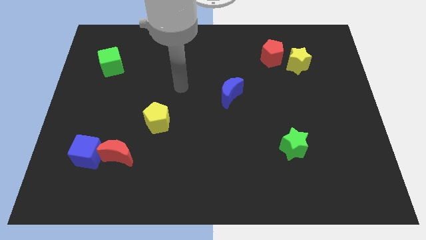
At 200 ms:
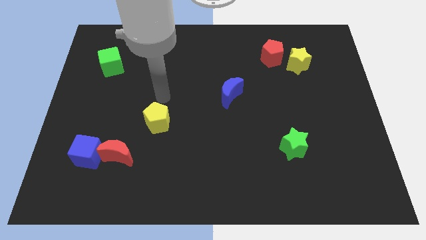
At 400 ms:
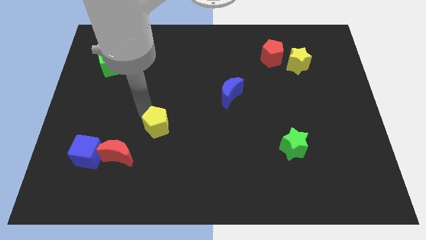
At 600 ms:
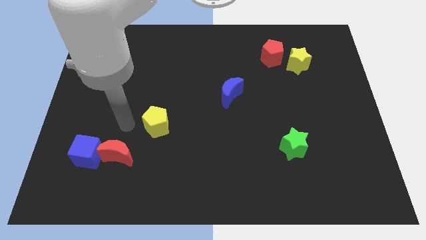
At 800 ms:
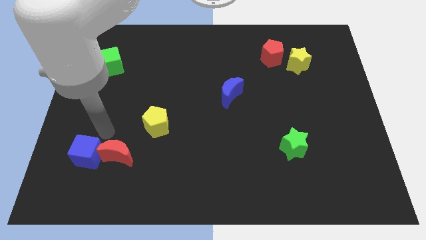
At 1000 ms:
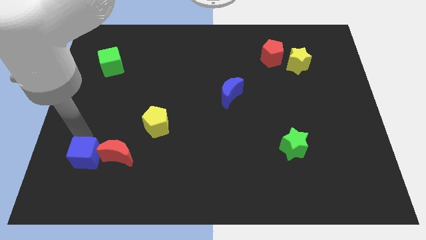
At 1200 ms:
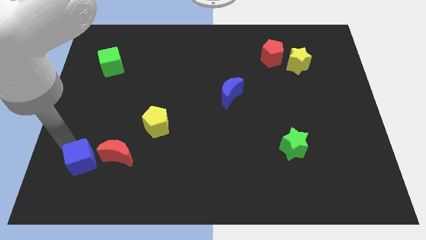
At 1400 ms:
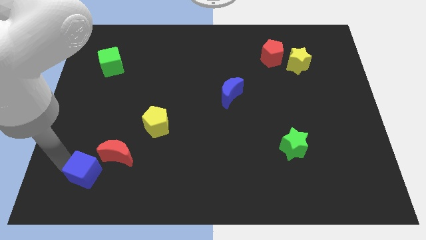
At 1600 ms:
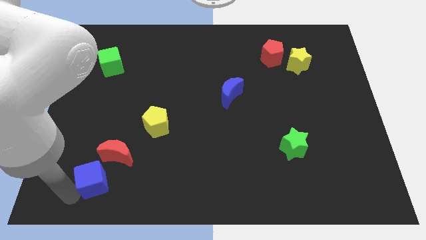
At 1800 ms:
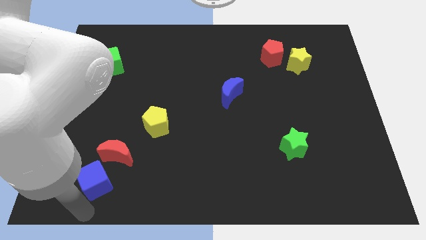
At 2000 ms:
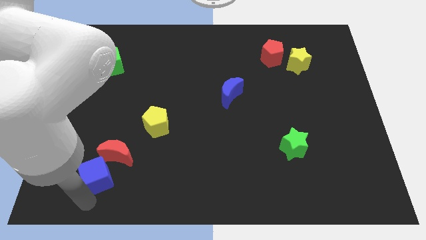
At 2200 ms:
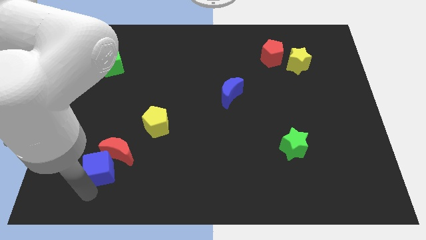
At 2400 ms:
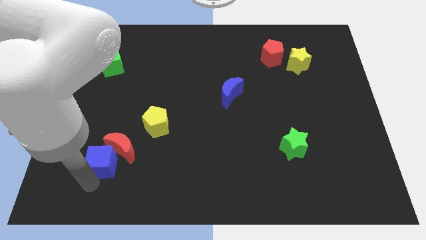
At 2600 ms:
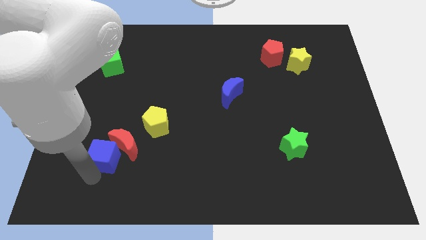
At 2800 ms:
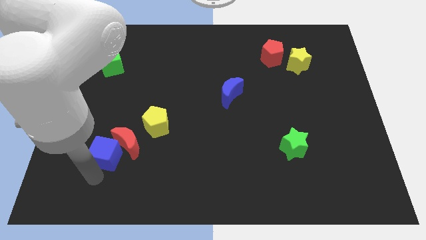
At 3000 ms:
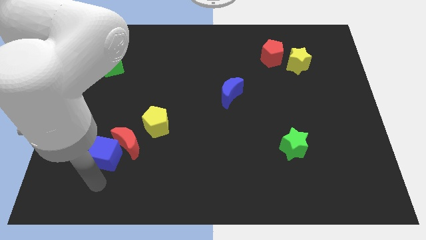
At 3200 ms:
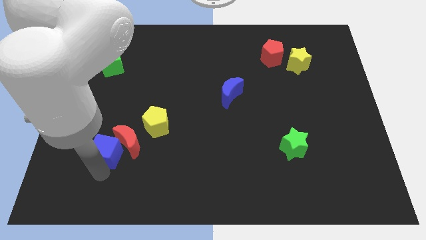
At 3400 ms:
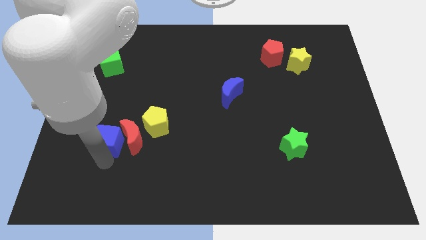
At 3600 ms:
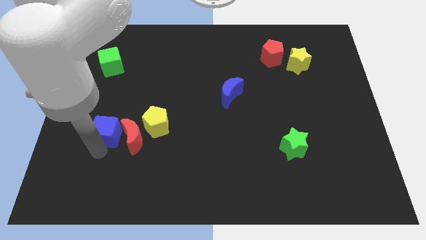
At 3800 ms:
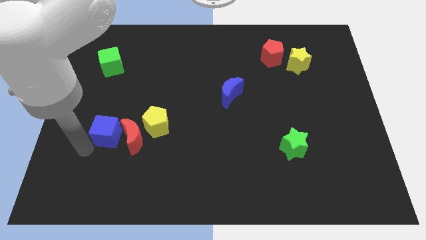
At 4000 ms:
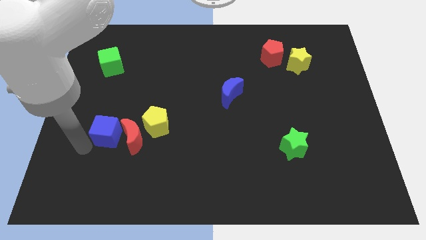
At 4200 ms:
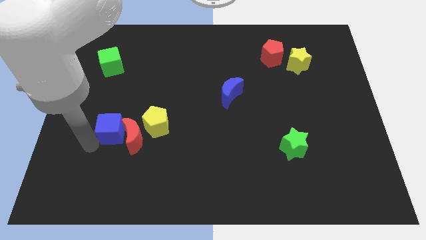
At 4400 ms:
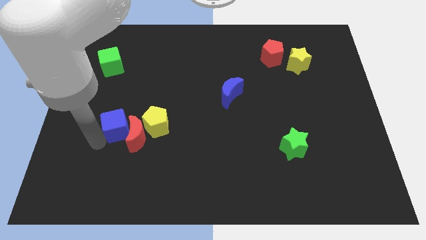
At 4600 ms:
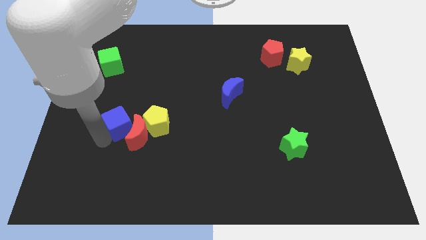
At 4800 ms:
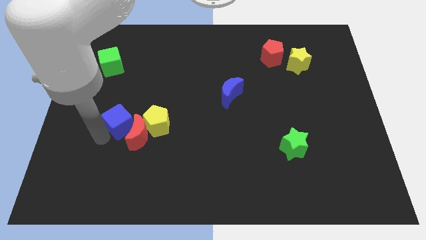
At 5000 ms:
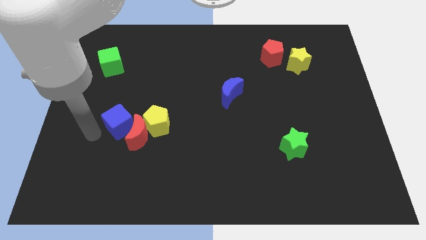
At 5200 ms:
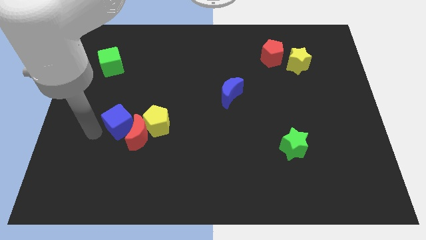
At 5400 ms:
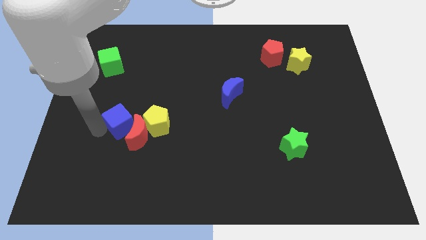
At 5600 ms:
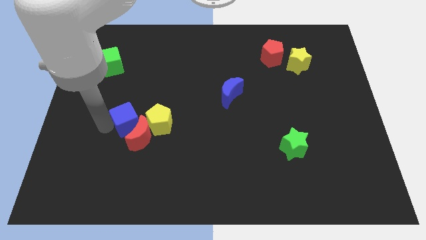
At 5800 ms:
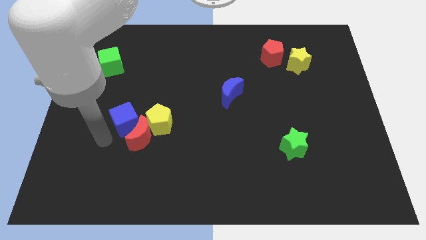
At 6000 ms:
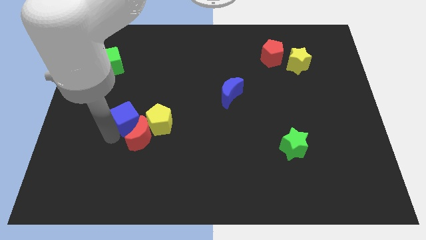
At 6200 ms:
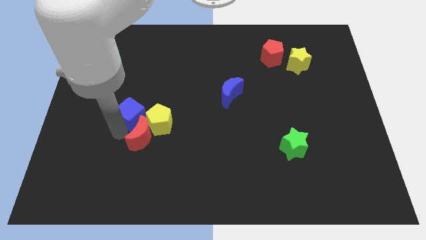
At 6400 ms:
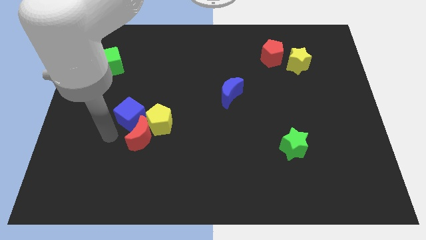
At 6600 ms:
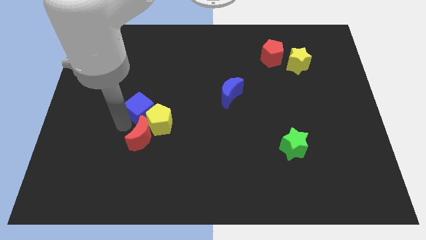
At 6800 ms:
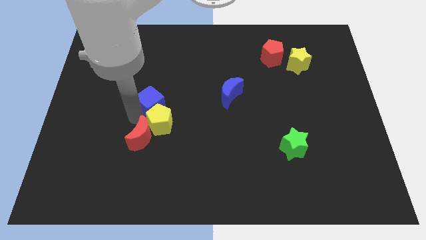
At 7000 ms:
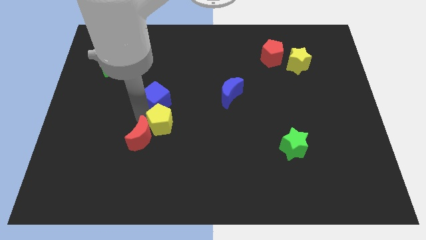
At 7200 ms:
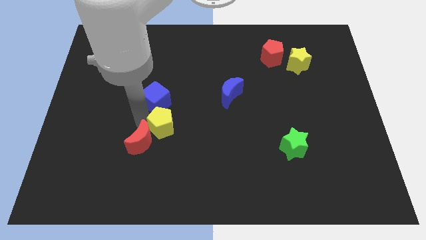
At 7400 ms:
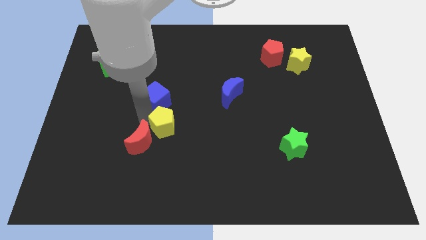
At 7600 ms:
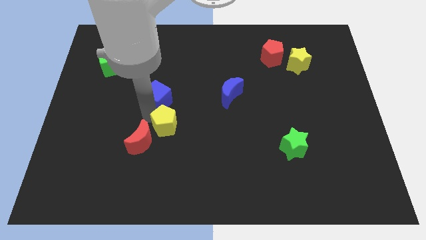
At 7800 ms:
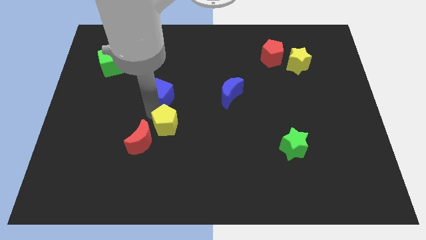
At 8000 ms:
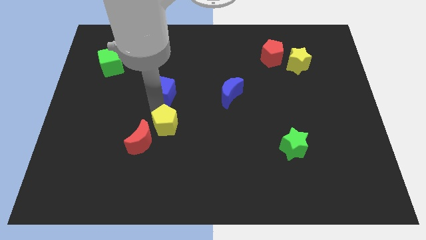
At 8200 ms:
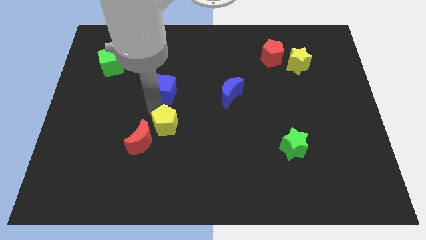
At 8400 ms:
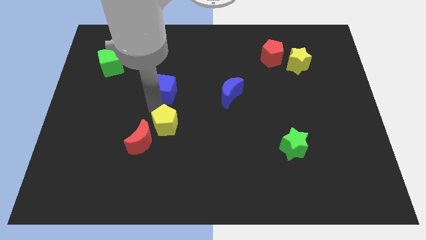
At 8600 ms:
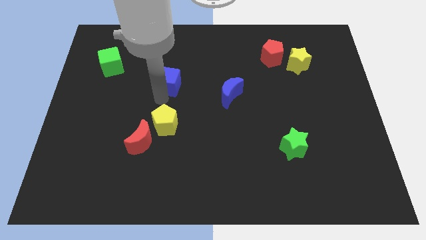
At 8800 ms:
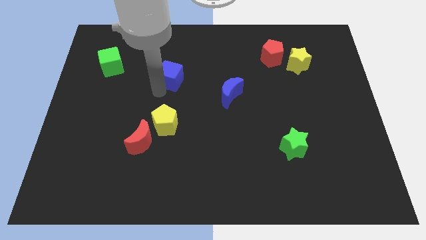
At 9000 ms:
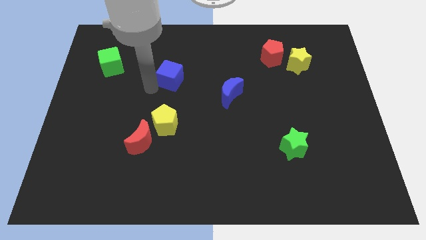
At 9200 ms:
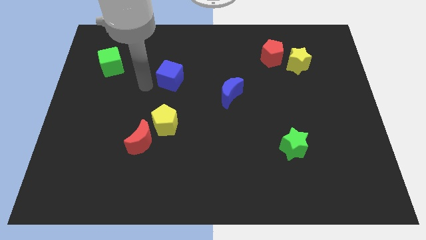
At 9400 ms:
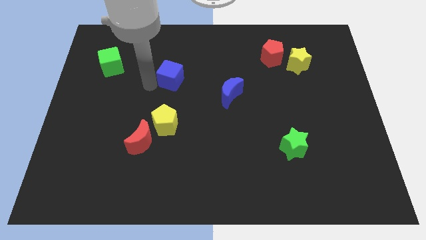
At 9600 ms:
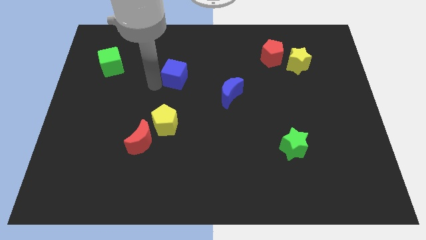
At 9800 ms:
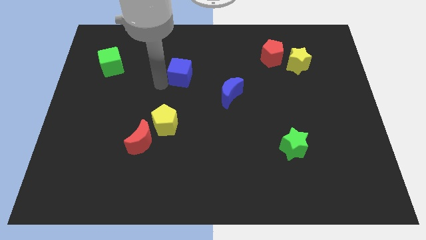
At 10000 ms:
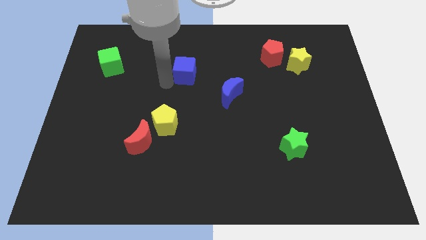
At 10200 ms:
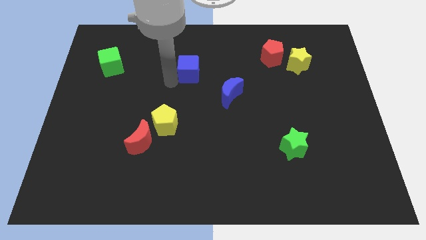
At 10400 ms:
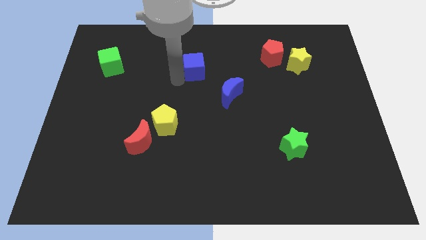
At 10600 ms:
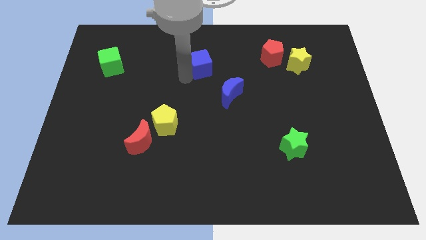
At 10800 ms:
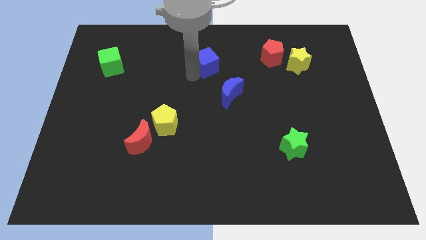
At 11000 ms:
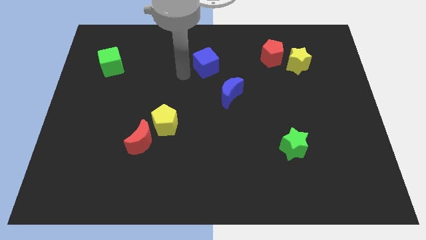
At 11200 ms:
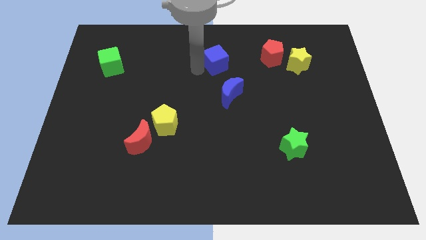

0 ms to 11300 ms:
push the blue cube to the left of the red pentagon

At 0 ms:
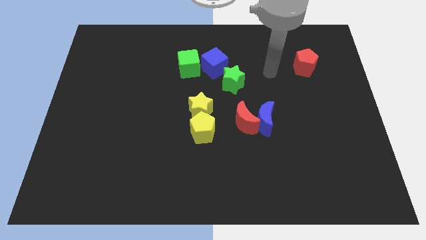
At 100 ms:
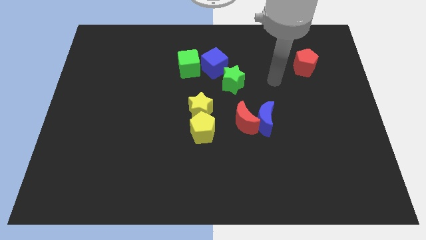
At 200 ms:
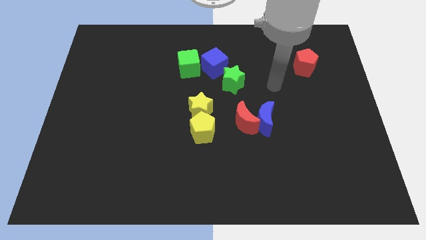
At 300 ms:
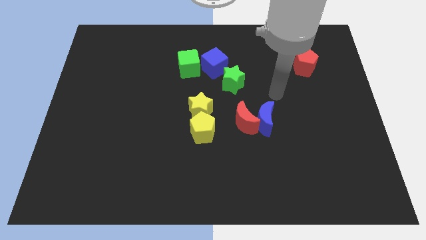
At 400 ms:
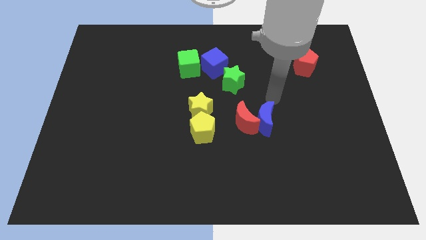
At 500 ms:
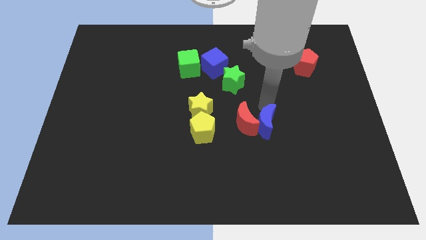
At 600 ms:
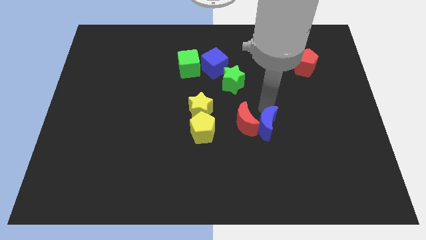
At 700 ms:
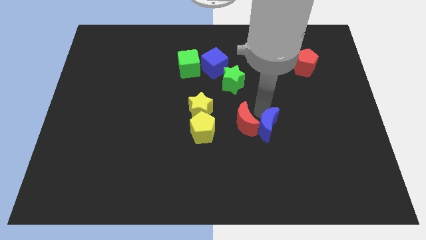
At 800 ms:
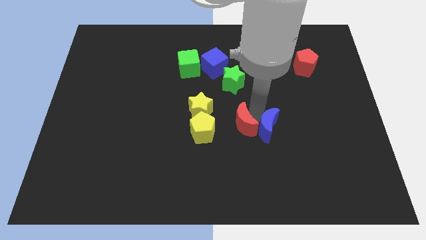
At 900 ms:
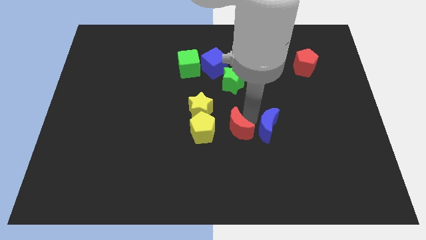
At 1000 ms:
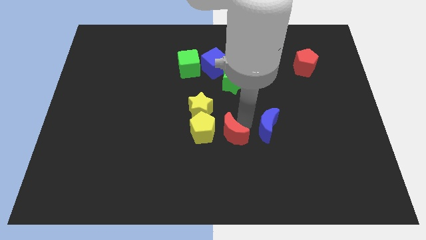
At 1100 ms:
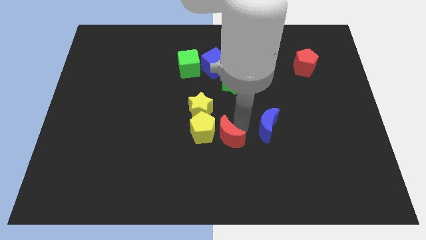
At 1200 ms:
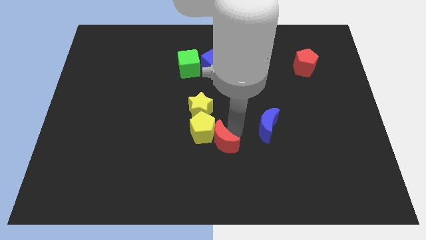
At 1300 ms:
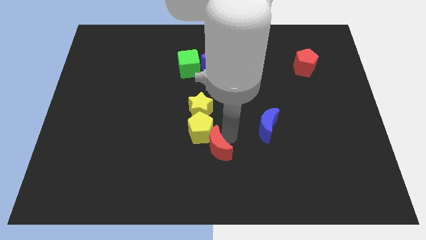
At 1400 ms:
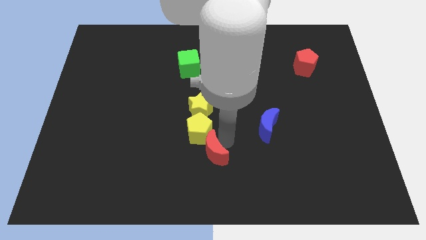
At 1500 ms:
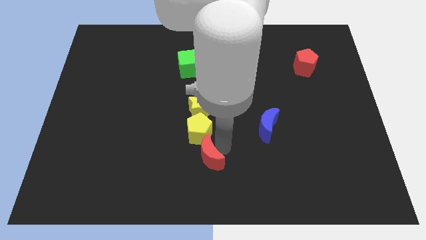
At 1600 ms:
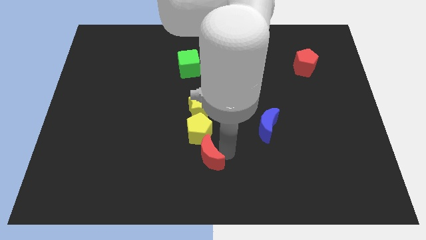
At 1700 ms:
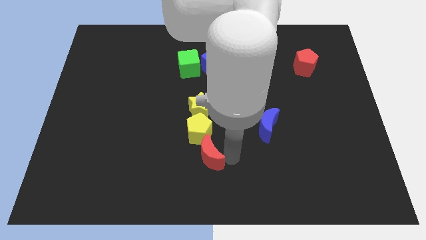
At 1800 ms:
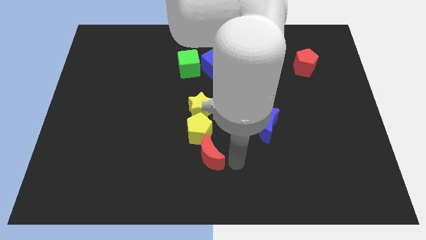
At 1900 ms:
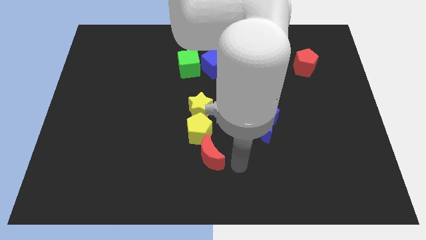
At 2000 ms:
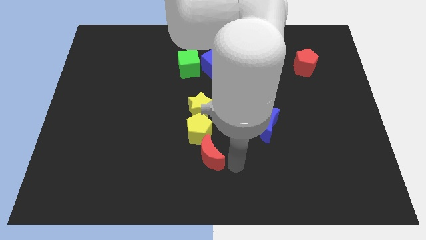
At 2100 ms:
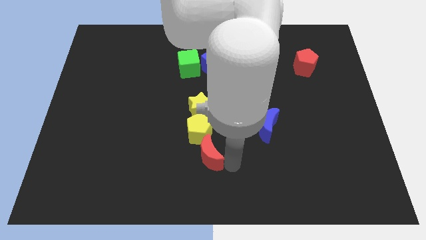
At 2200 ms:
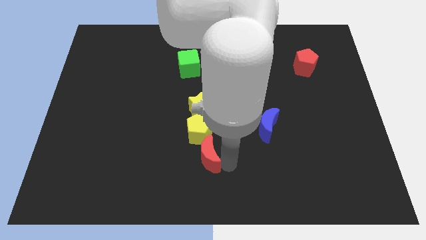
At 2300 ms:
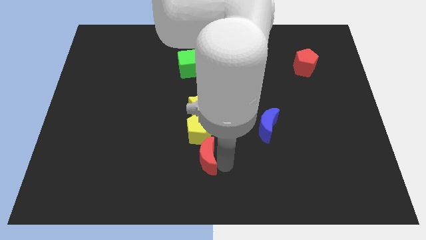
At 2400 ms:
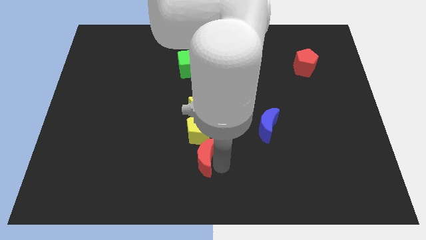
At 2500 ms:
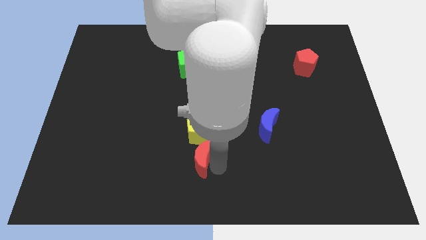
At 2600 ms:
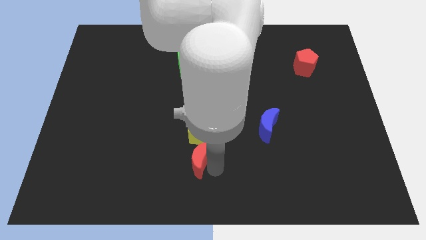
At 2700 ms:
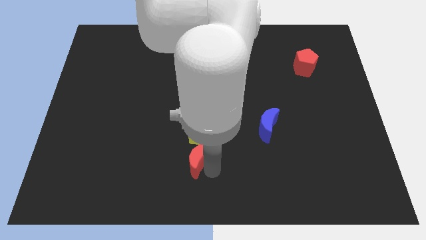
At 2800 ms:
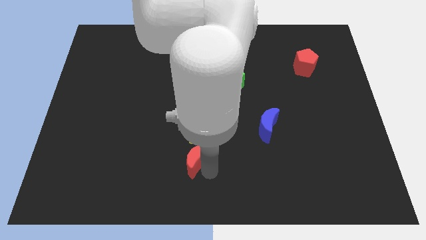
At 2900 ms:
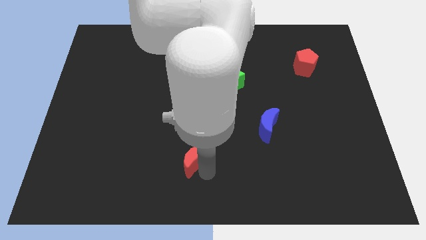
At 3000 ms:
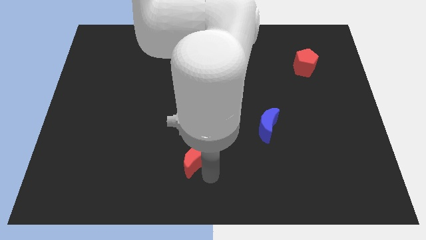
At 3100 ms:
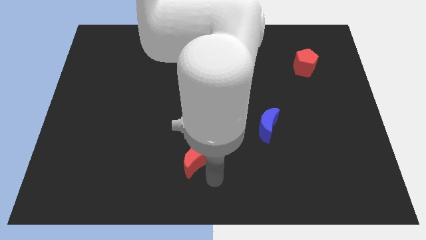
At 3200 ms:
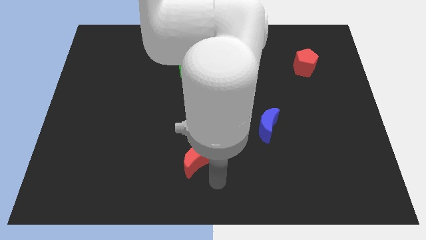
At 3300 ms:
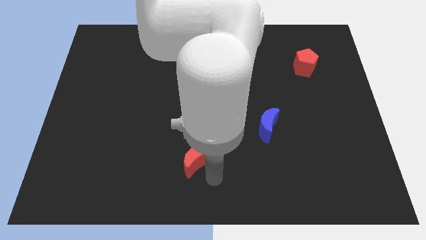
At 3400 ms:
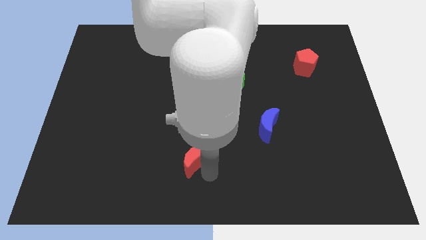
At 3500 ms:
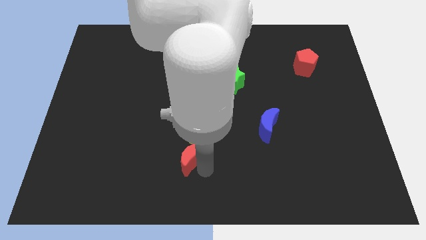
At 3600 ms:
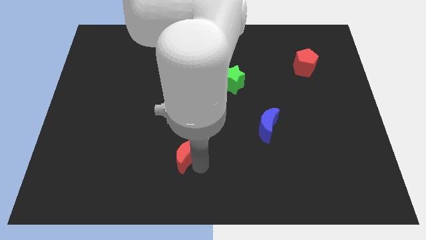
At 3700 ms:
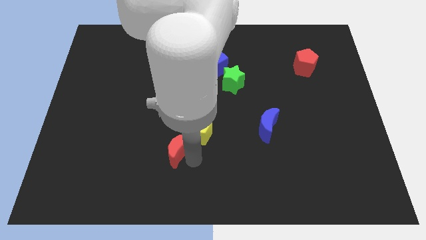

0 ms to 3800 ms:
push the red moon just left of the yellow pentagon
